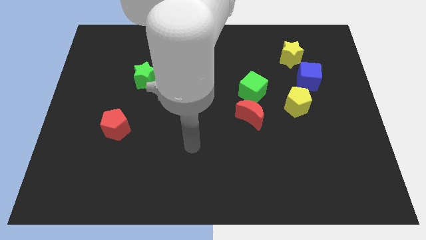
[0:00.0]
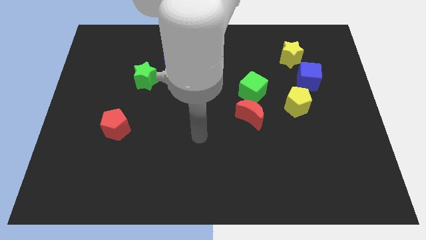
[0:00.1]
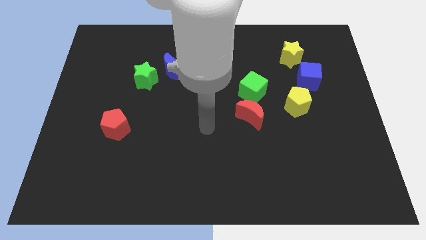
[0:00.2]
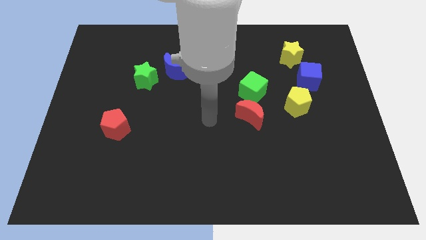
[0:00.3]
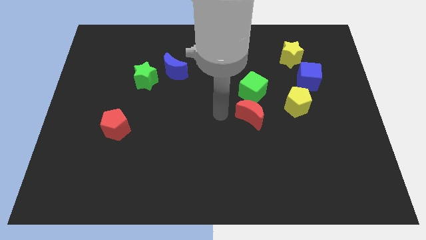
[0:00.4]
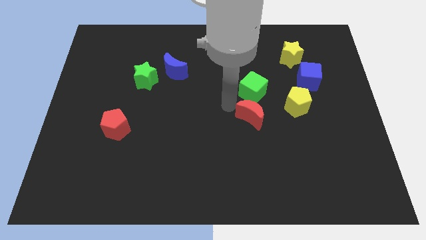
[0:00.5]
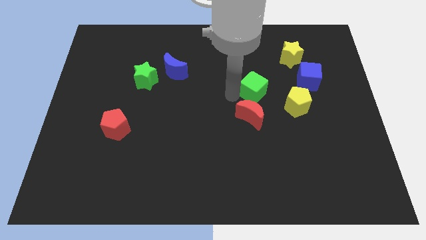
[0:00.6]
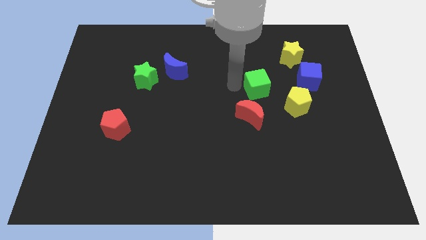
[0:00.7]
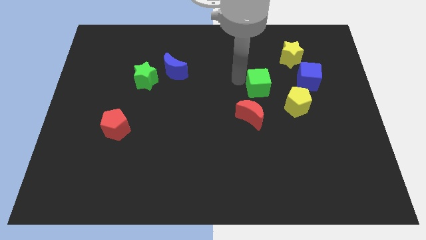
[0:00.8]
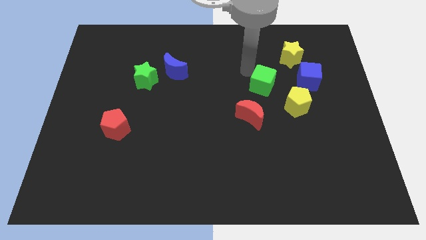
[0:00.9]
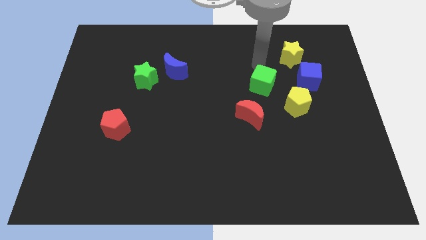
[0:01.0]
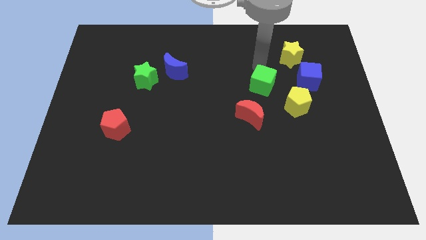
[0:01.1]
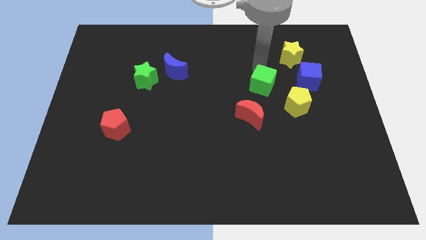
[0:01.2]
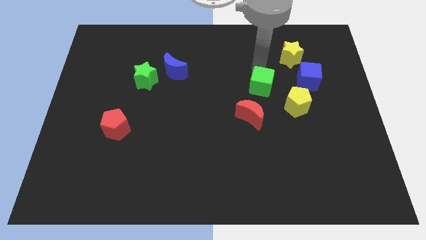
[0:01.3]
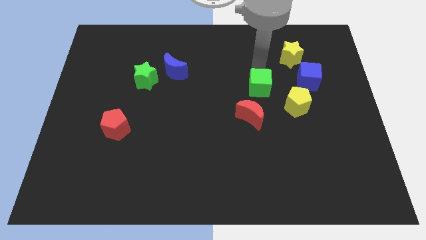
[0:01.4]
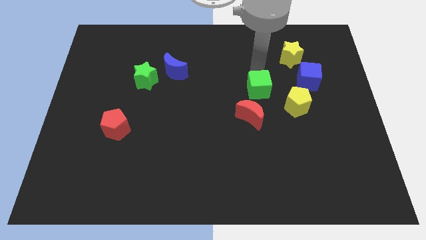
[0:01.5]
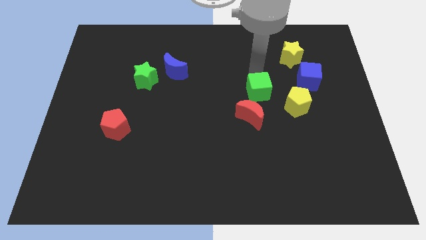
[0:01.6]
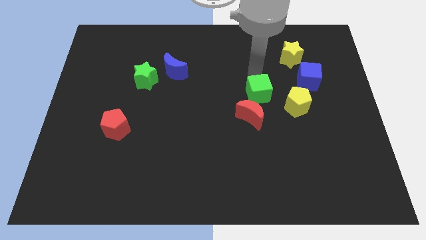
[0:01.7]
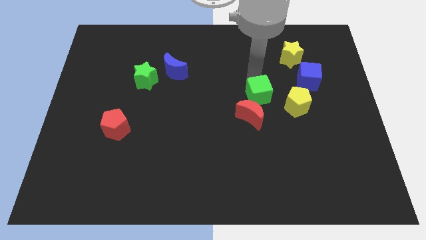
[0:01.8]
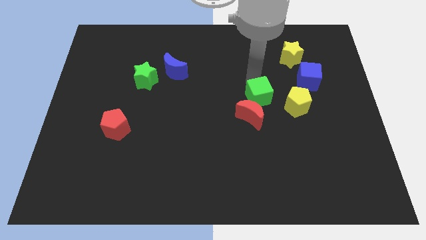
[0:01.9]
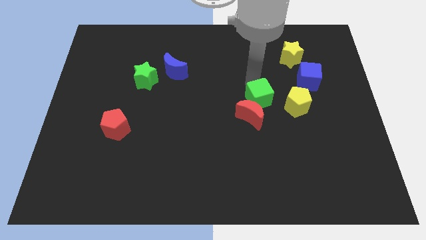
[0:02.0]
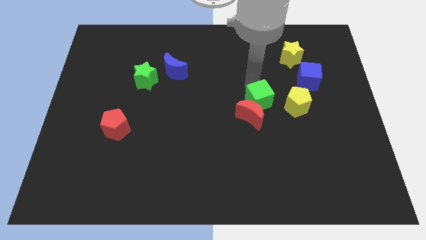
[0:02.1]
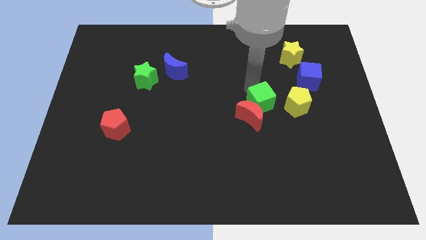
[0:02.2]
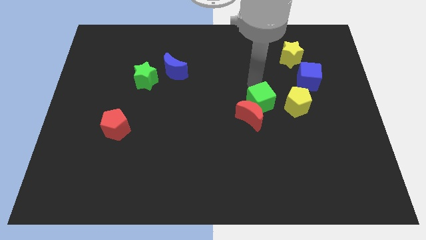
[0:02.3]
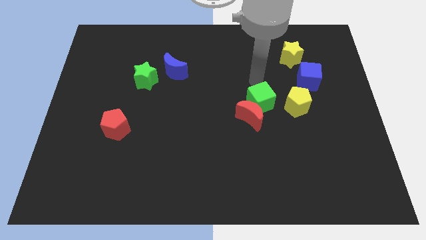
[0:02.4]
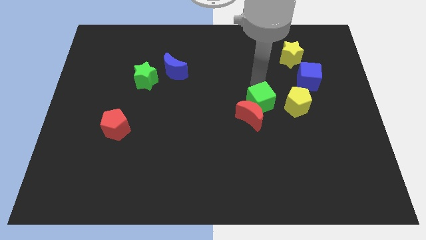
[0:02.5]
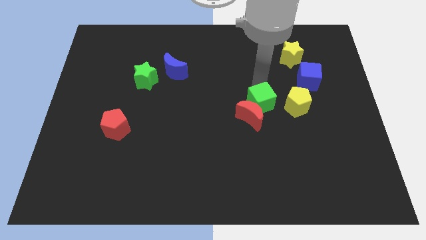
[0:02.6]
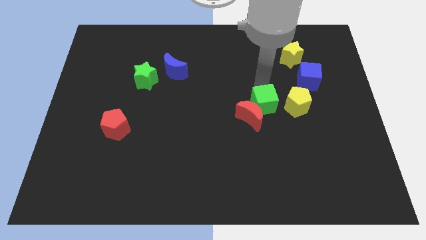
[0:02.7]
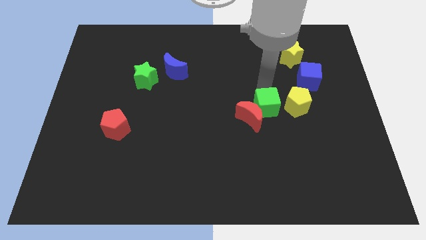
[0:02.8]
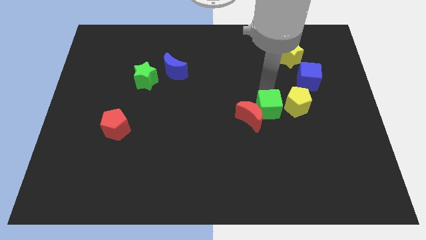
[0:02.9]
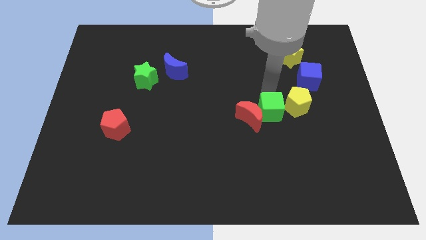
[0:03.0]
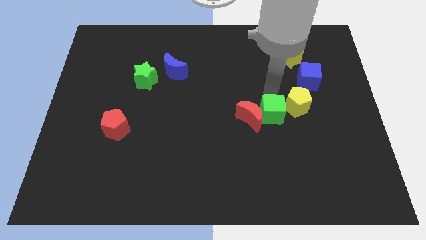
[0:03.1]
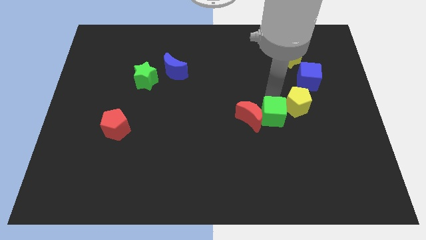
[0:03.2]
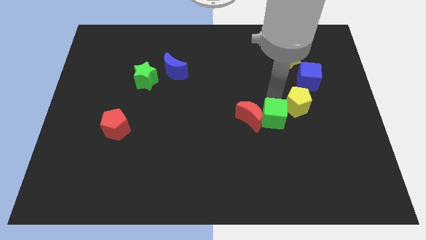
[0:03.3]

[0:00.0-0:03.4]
push the green cube downwards a little

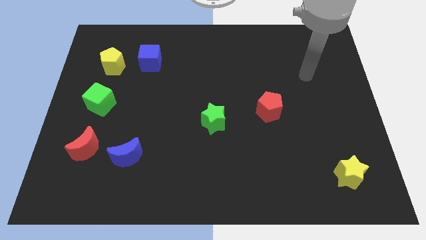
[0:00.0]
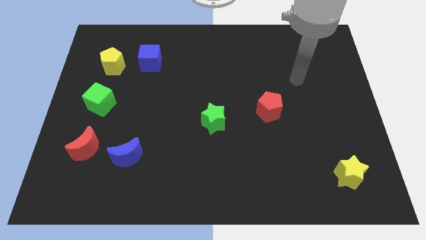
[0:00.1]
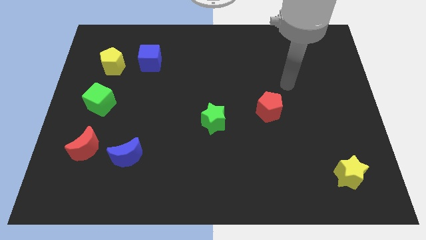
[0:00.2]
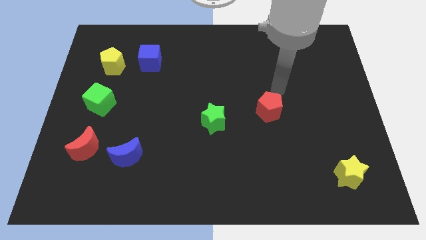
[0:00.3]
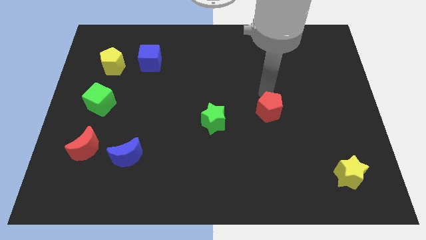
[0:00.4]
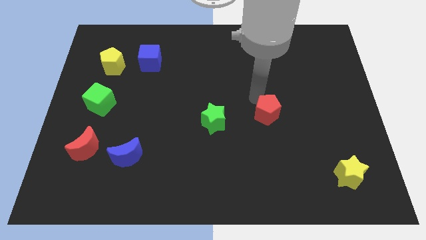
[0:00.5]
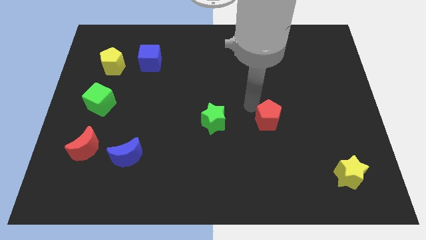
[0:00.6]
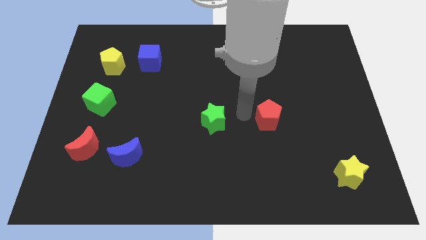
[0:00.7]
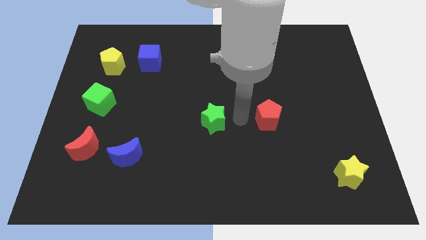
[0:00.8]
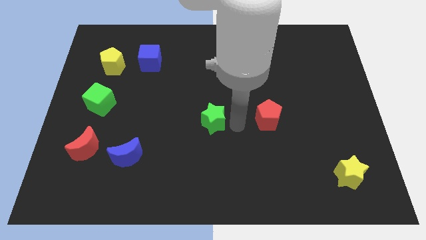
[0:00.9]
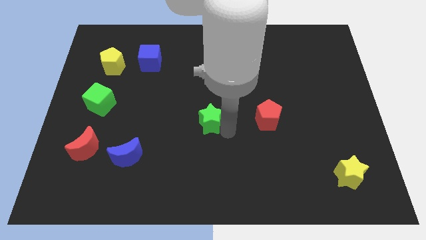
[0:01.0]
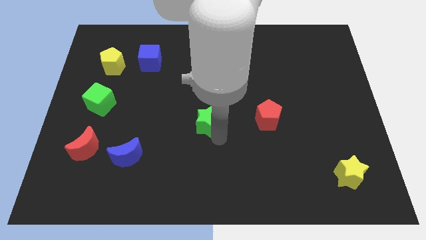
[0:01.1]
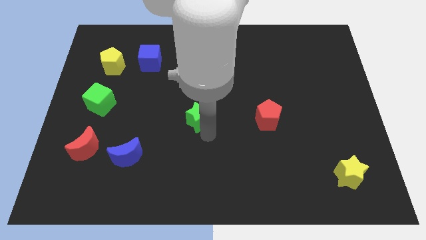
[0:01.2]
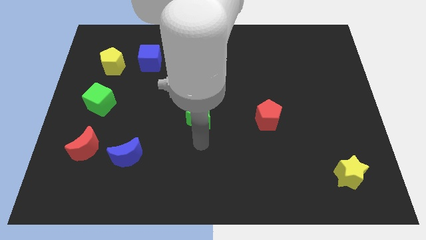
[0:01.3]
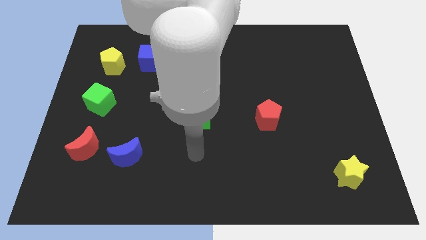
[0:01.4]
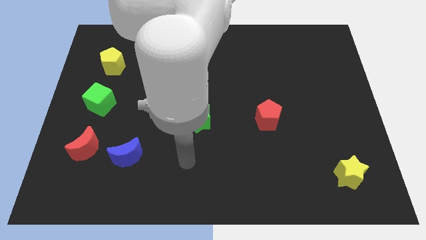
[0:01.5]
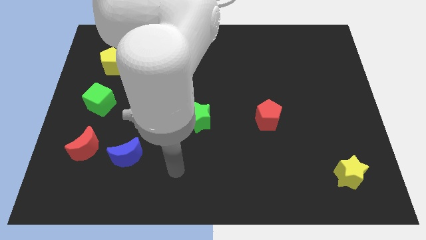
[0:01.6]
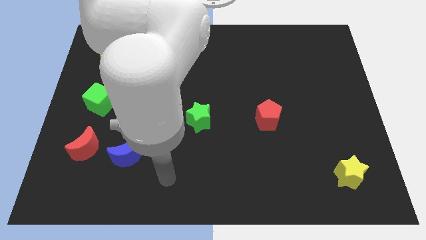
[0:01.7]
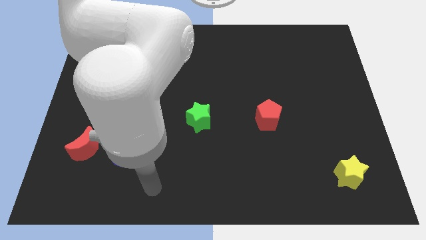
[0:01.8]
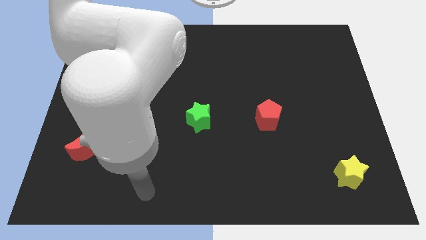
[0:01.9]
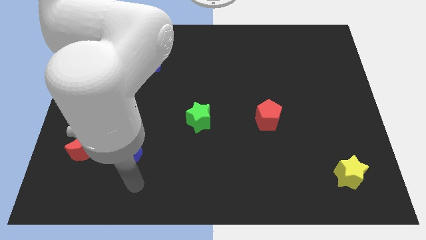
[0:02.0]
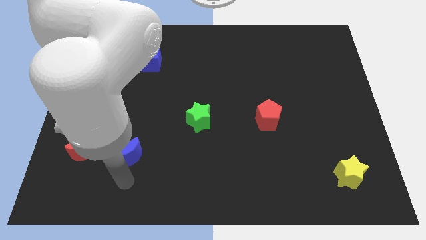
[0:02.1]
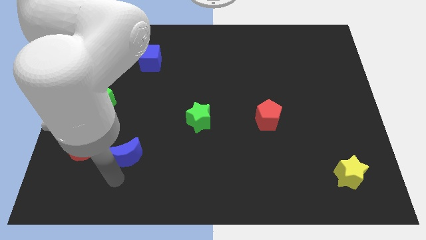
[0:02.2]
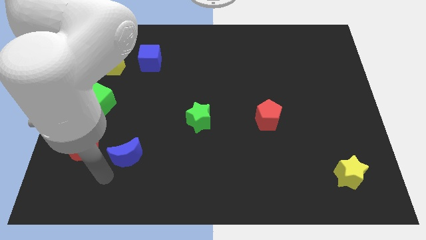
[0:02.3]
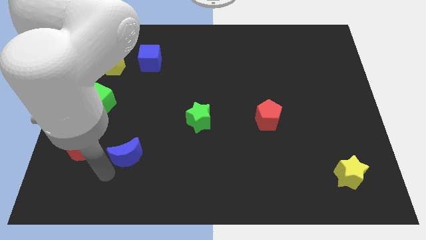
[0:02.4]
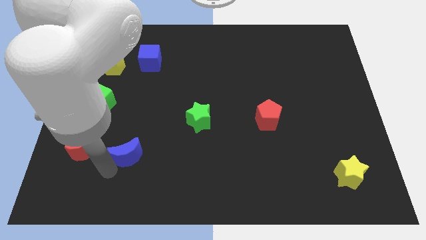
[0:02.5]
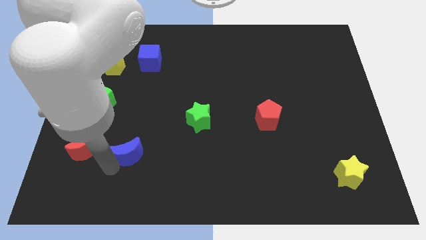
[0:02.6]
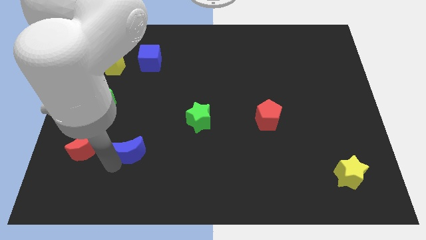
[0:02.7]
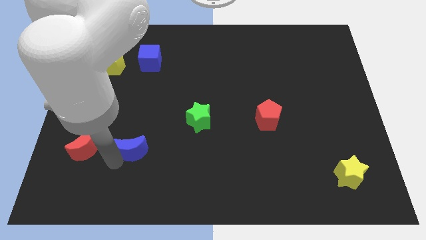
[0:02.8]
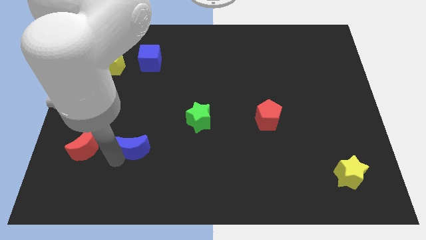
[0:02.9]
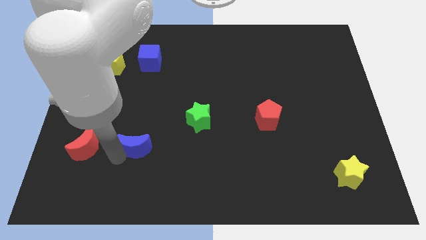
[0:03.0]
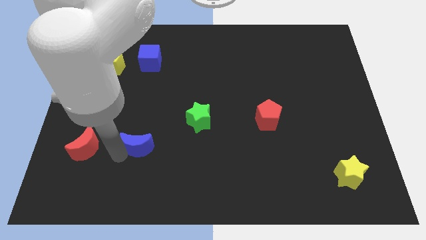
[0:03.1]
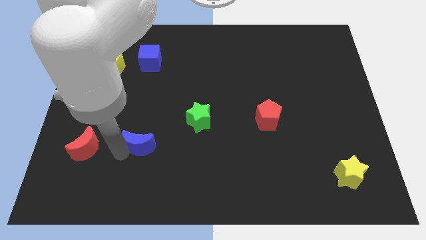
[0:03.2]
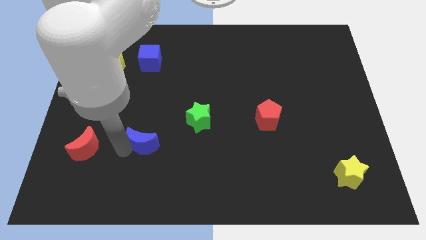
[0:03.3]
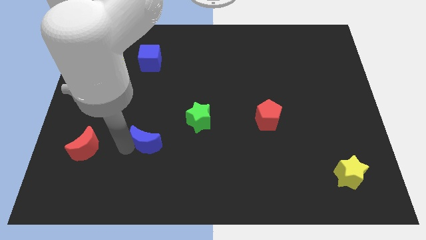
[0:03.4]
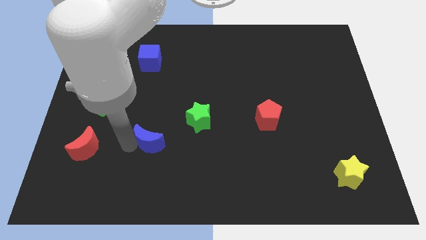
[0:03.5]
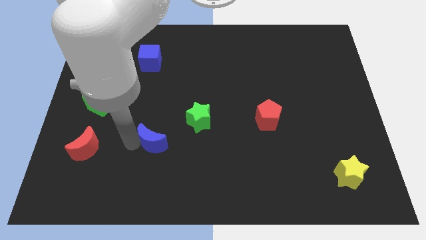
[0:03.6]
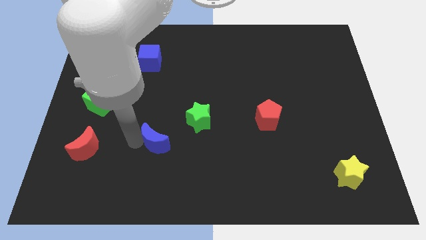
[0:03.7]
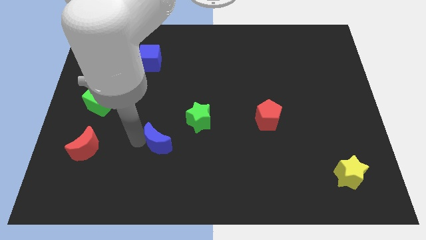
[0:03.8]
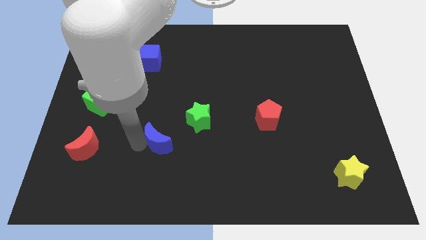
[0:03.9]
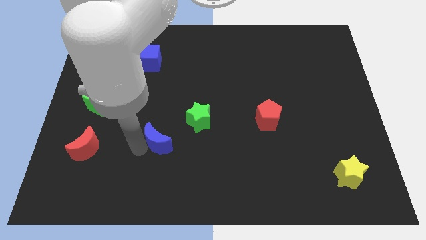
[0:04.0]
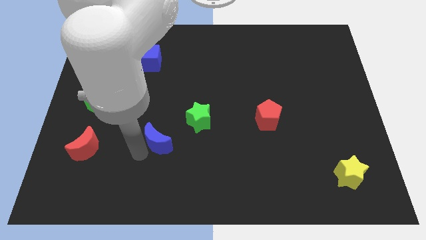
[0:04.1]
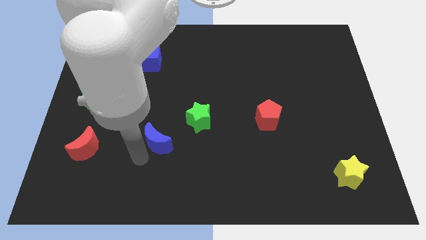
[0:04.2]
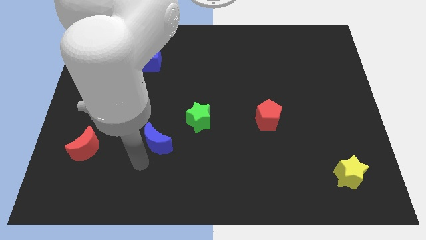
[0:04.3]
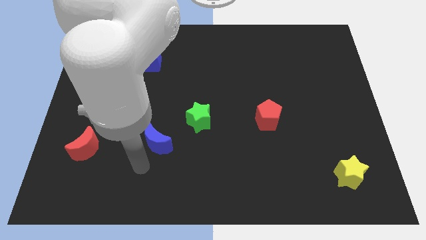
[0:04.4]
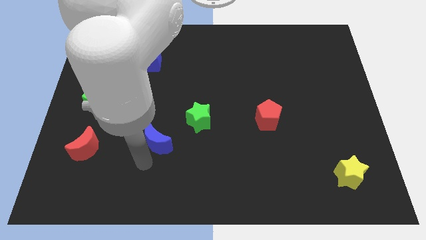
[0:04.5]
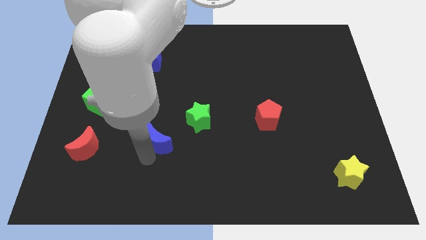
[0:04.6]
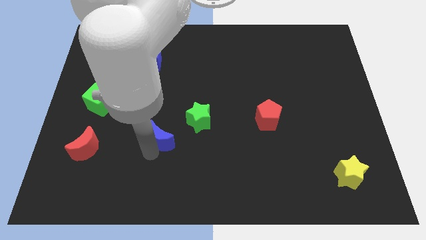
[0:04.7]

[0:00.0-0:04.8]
move the blue moon up and to the right diagonally a little
